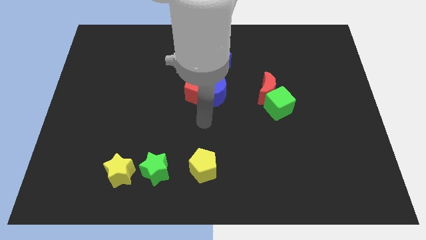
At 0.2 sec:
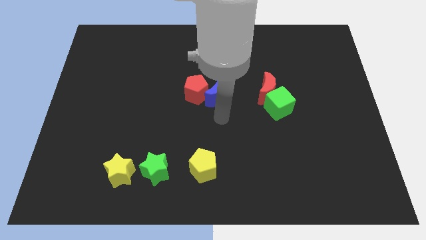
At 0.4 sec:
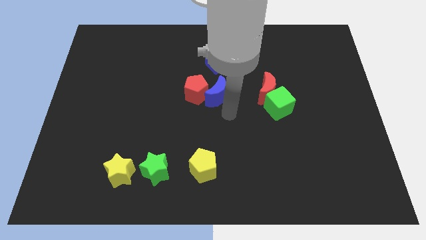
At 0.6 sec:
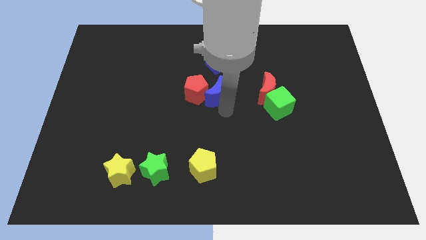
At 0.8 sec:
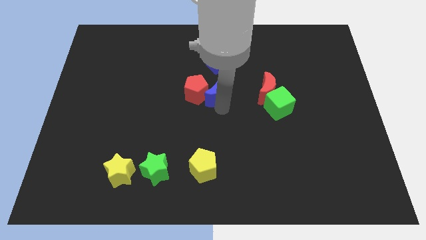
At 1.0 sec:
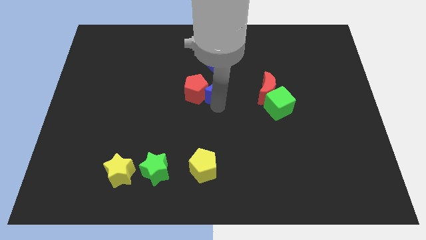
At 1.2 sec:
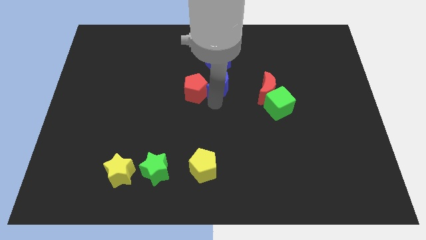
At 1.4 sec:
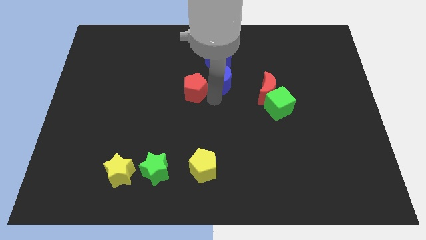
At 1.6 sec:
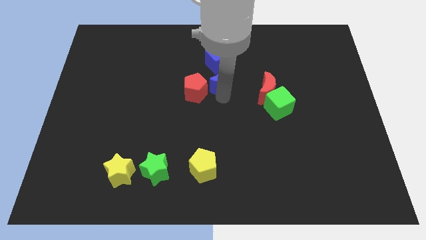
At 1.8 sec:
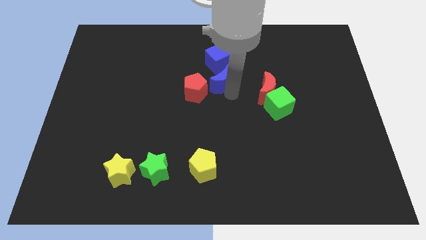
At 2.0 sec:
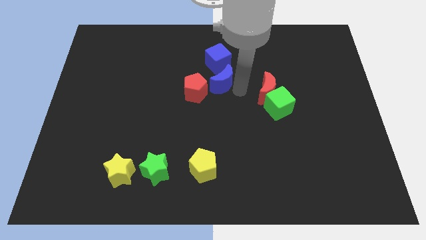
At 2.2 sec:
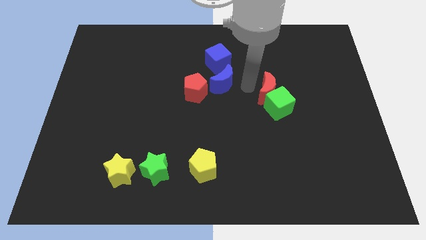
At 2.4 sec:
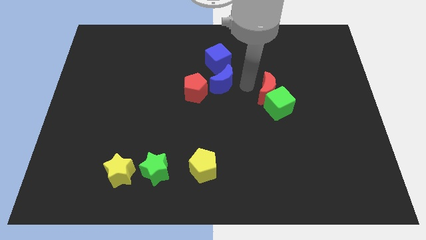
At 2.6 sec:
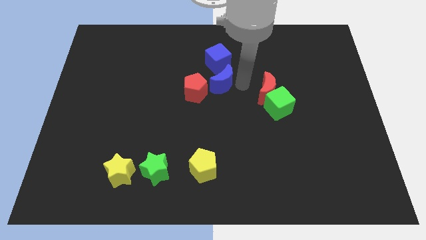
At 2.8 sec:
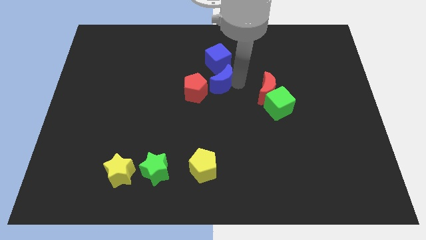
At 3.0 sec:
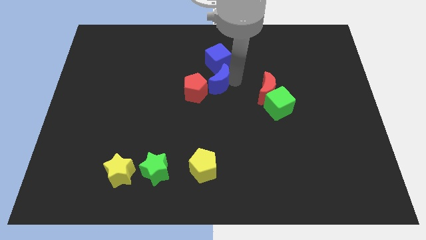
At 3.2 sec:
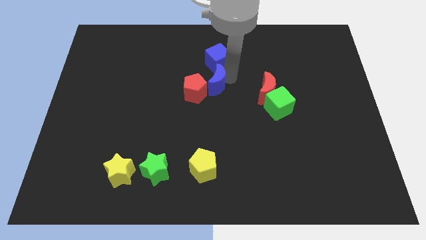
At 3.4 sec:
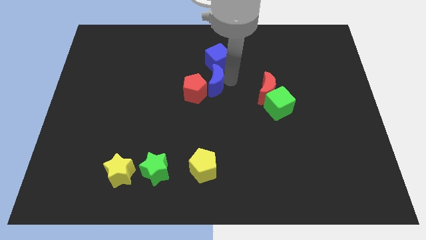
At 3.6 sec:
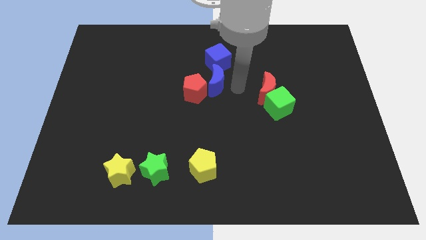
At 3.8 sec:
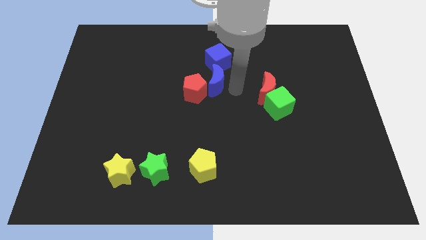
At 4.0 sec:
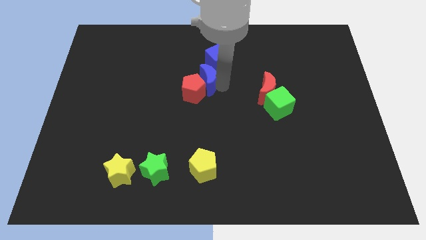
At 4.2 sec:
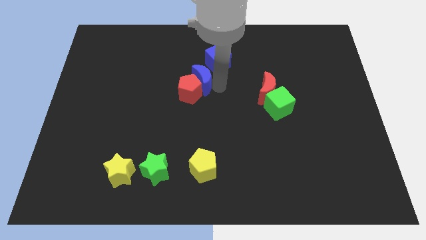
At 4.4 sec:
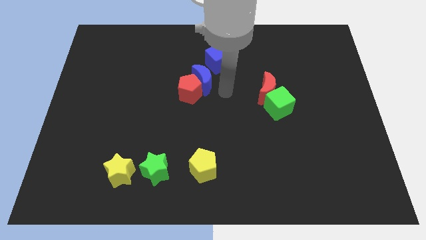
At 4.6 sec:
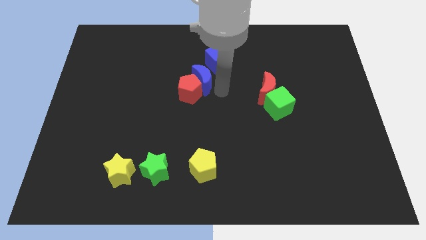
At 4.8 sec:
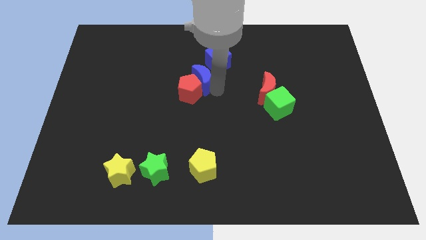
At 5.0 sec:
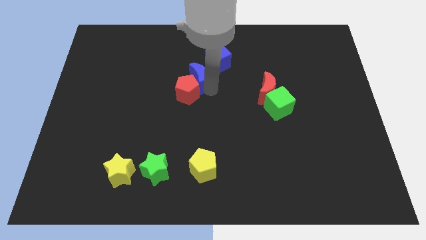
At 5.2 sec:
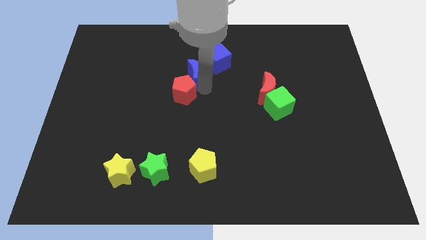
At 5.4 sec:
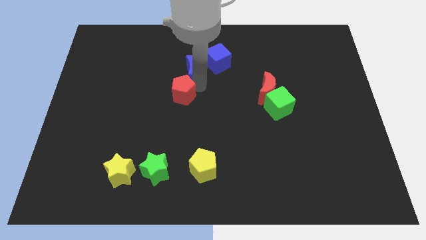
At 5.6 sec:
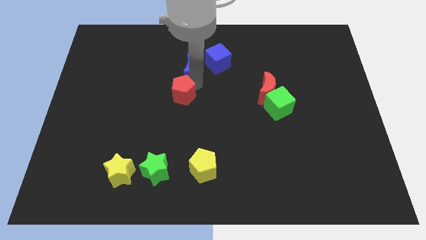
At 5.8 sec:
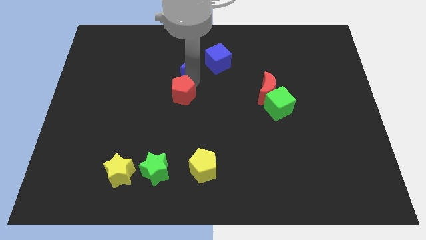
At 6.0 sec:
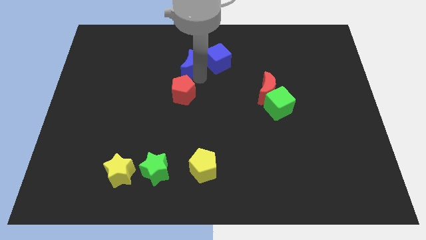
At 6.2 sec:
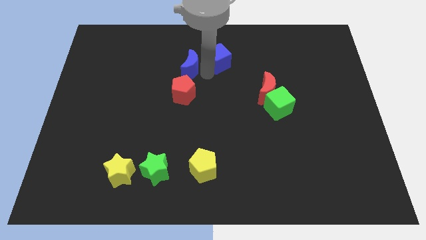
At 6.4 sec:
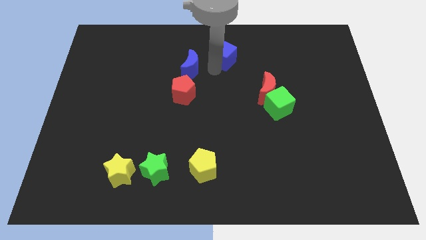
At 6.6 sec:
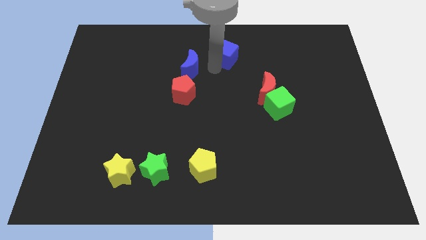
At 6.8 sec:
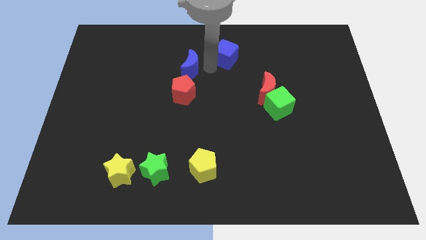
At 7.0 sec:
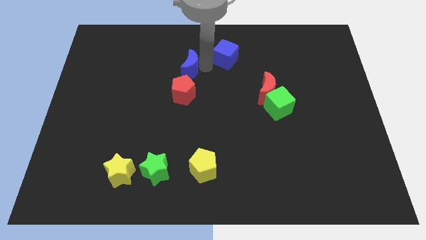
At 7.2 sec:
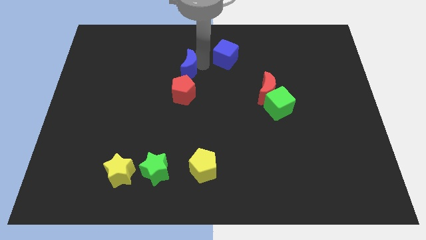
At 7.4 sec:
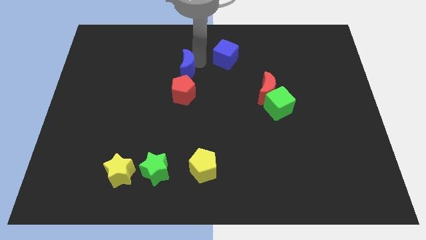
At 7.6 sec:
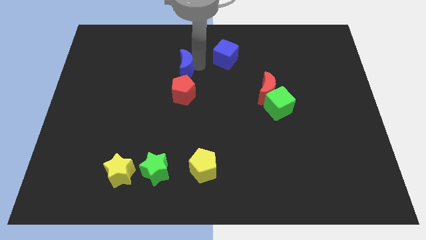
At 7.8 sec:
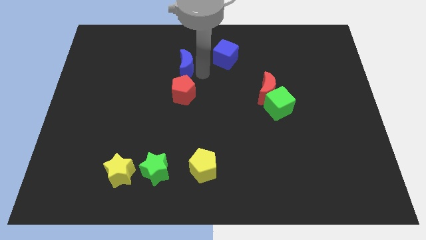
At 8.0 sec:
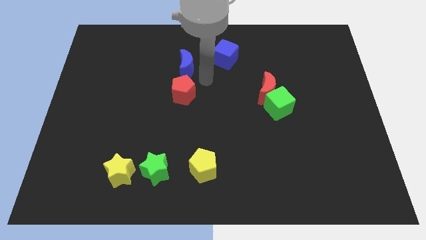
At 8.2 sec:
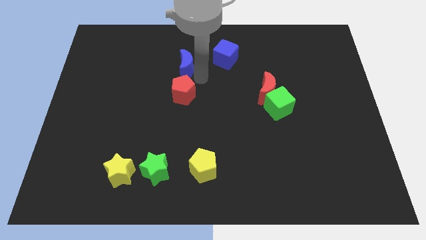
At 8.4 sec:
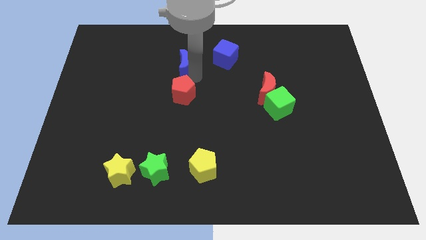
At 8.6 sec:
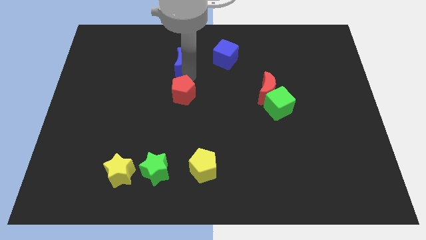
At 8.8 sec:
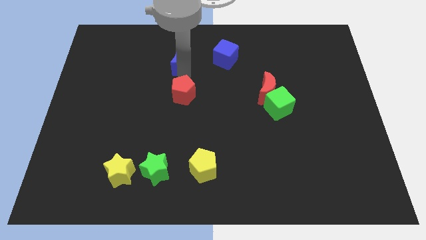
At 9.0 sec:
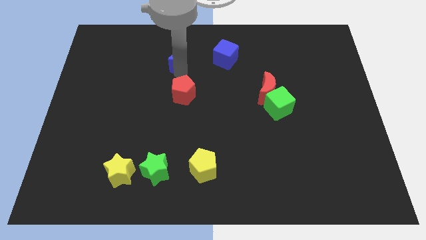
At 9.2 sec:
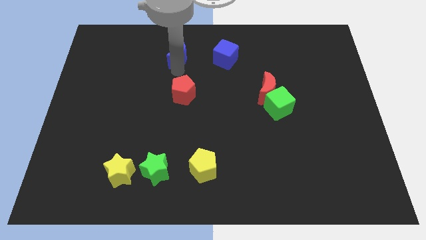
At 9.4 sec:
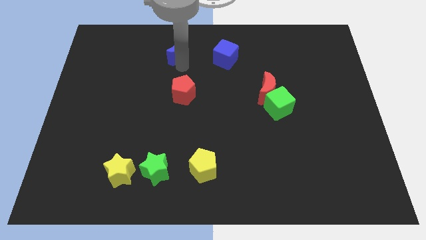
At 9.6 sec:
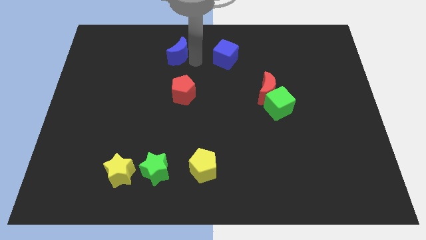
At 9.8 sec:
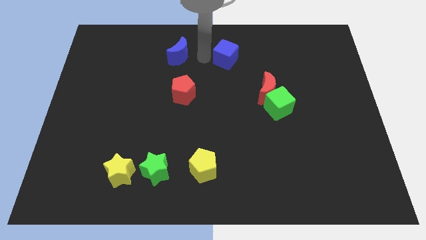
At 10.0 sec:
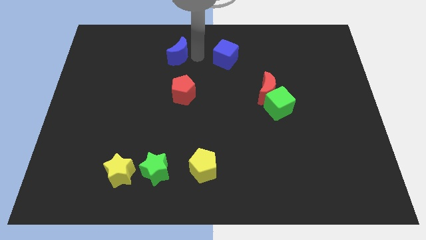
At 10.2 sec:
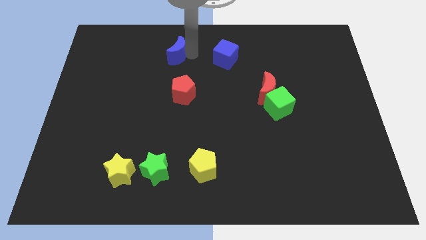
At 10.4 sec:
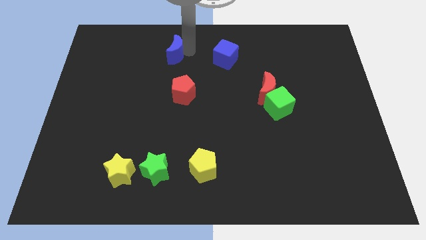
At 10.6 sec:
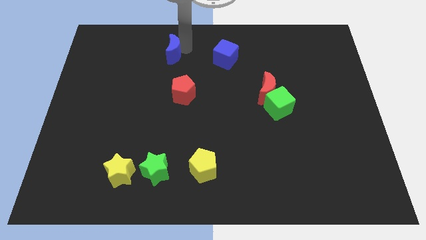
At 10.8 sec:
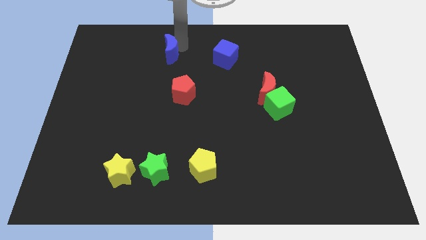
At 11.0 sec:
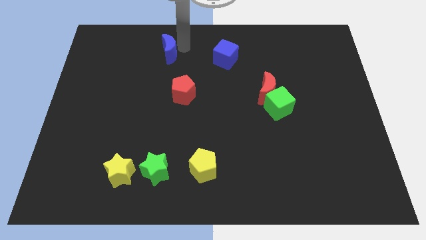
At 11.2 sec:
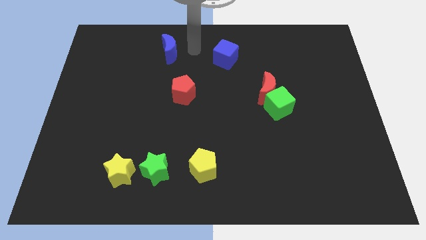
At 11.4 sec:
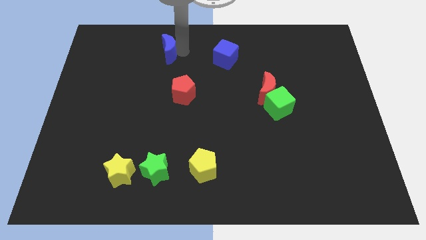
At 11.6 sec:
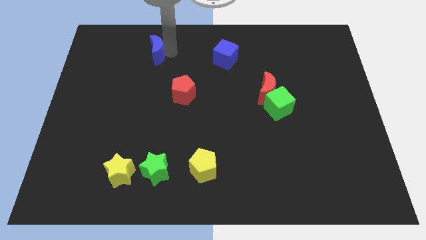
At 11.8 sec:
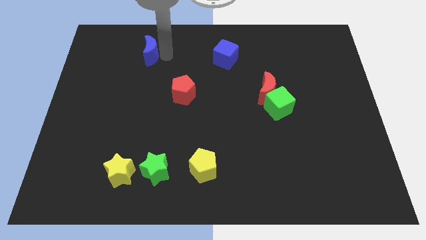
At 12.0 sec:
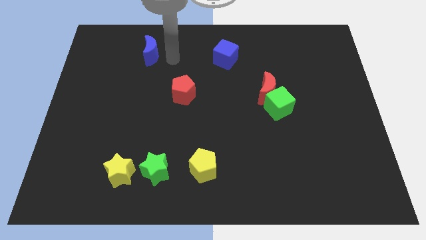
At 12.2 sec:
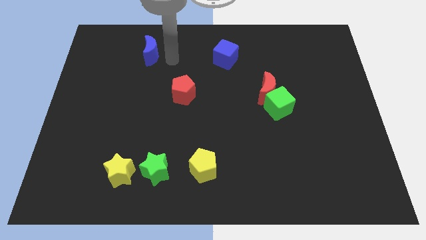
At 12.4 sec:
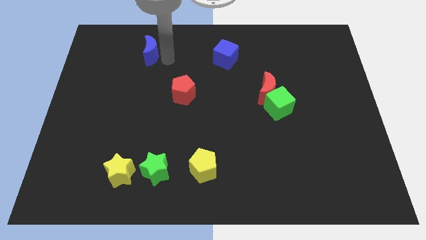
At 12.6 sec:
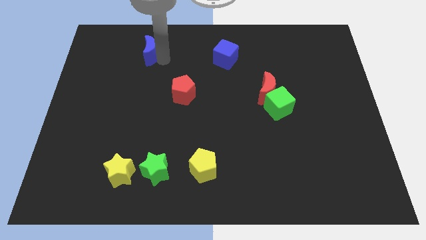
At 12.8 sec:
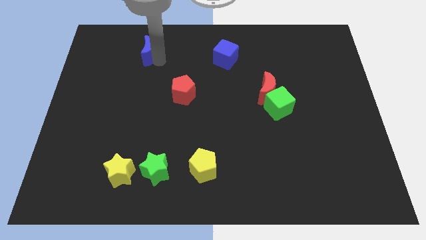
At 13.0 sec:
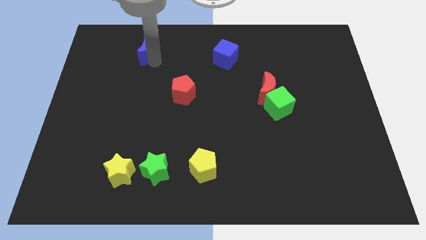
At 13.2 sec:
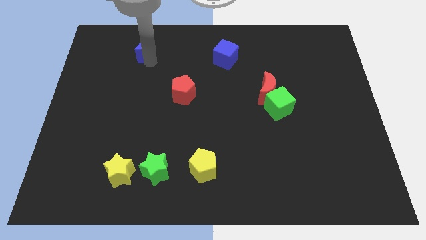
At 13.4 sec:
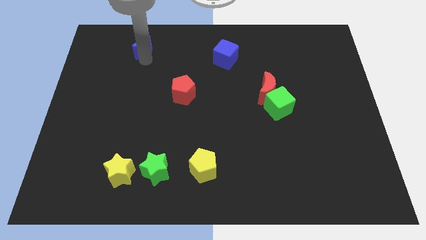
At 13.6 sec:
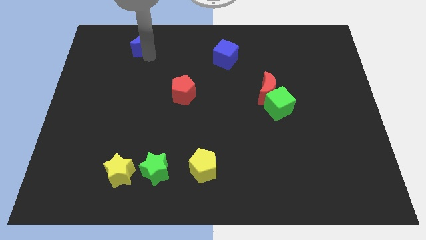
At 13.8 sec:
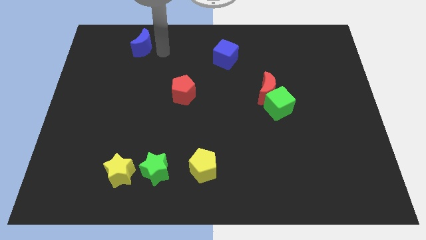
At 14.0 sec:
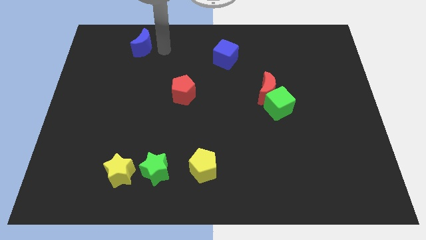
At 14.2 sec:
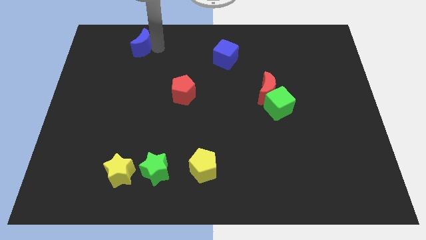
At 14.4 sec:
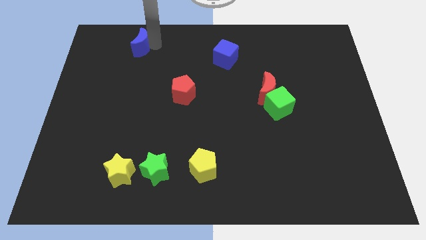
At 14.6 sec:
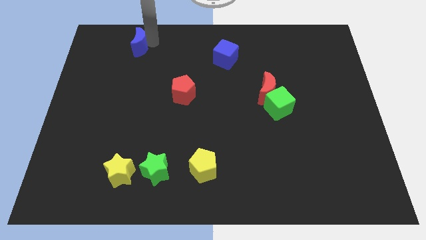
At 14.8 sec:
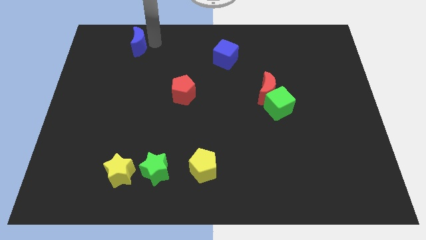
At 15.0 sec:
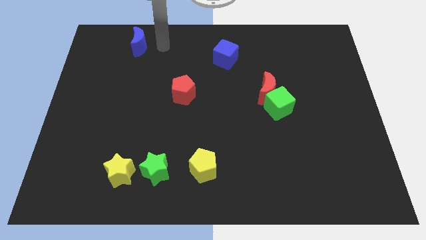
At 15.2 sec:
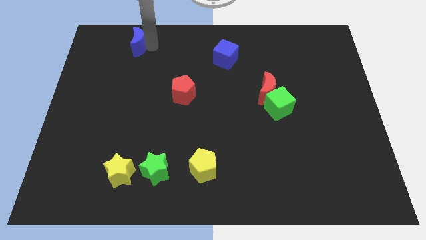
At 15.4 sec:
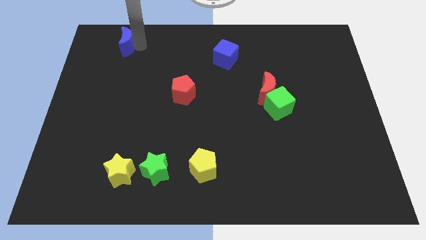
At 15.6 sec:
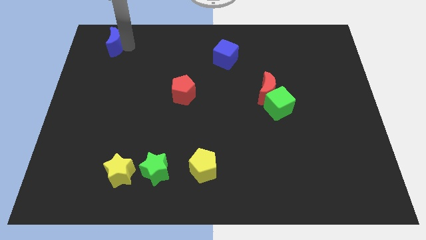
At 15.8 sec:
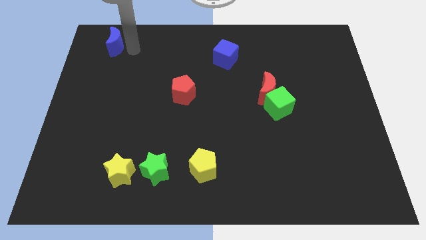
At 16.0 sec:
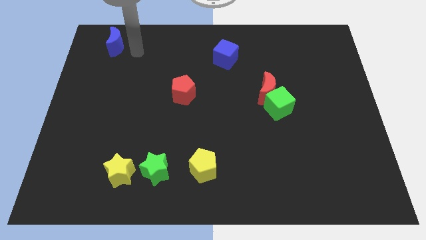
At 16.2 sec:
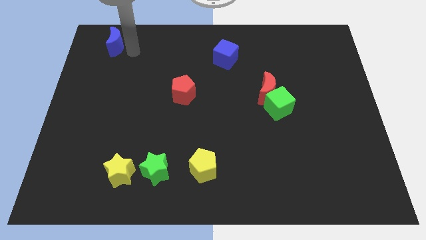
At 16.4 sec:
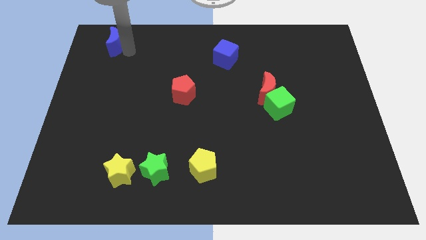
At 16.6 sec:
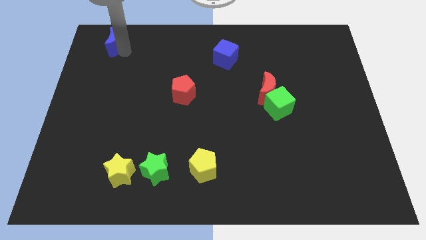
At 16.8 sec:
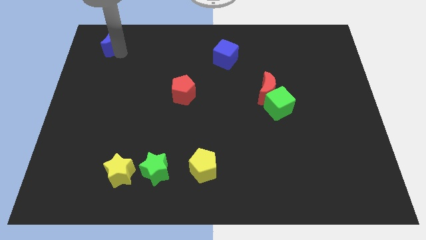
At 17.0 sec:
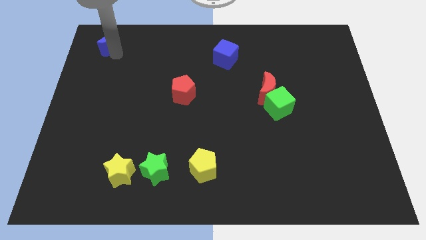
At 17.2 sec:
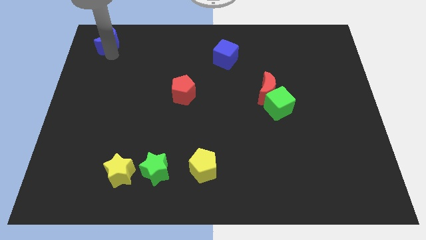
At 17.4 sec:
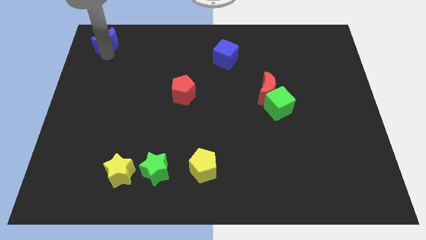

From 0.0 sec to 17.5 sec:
slide the blue moon to the top left
